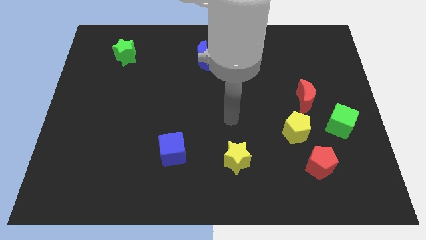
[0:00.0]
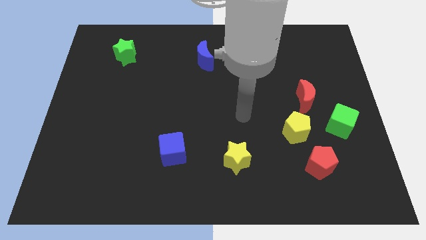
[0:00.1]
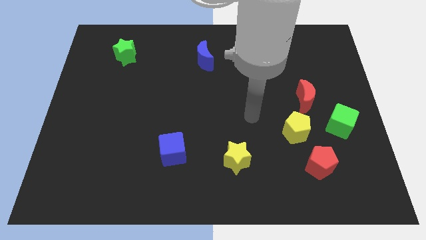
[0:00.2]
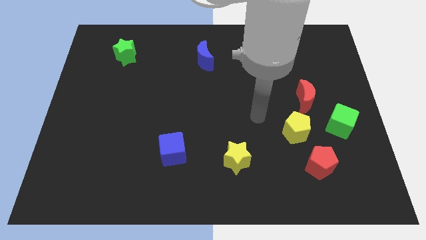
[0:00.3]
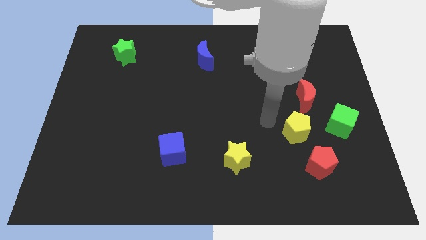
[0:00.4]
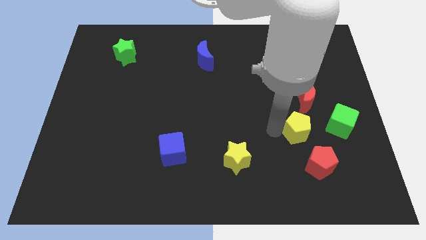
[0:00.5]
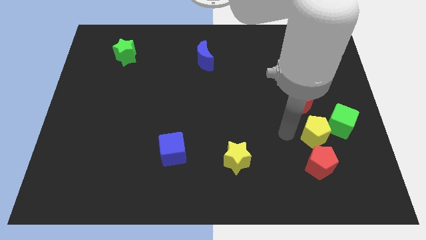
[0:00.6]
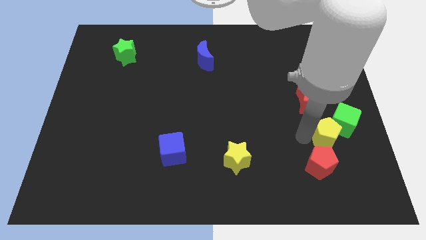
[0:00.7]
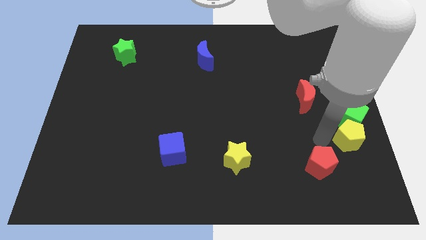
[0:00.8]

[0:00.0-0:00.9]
pull the red pentagon apart from the yellow pentagon

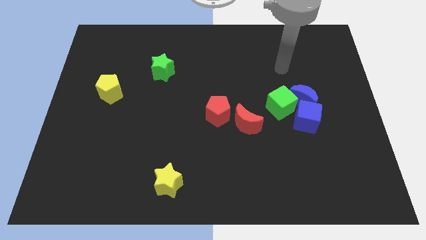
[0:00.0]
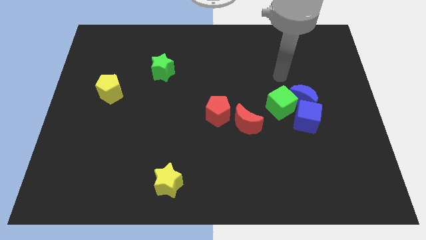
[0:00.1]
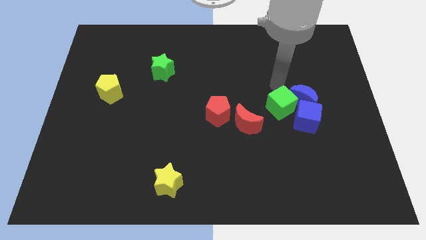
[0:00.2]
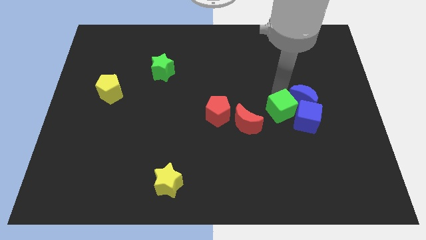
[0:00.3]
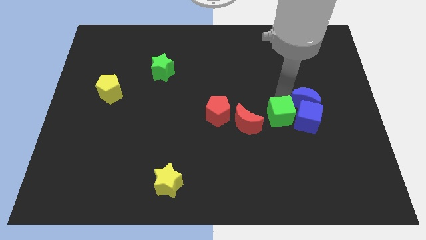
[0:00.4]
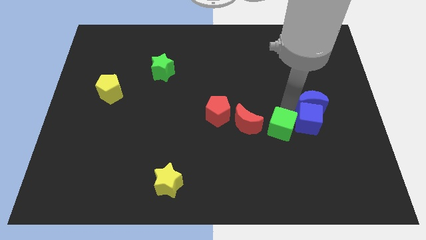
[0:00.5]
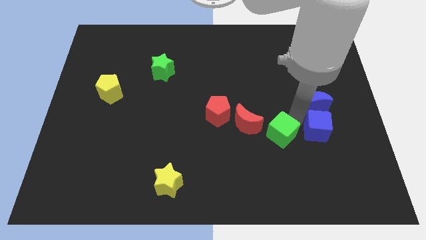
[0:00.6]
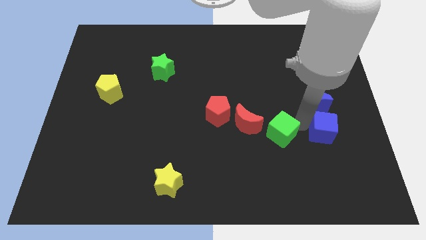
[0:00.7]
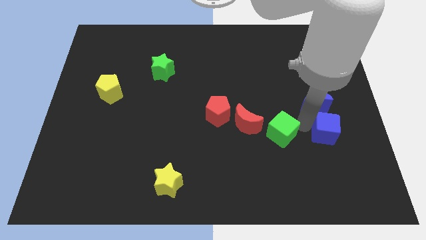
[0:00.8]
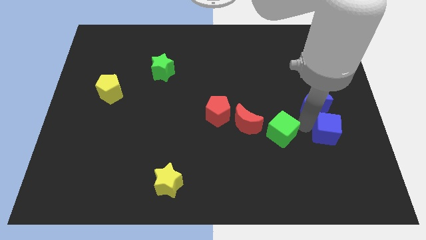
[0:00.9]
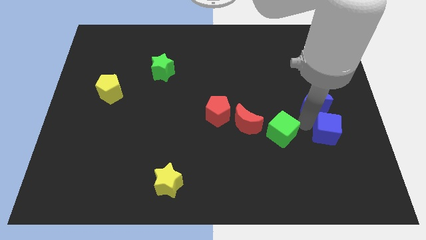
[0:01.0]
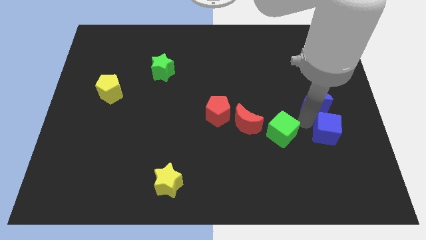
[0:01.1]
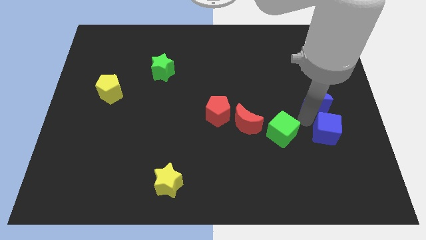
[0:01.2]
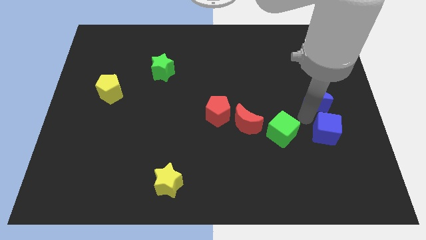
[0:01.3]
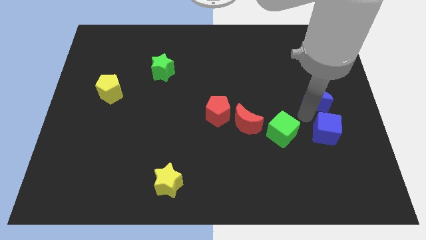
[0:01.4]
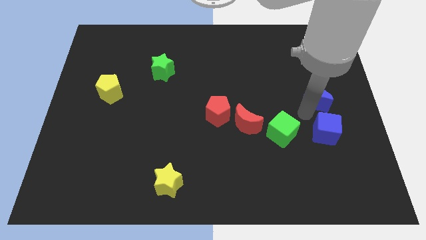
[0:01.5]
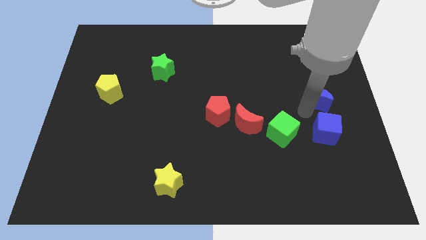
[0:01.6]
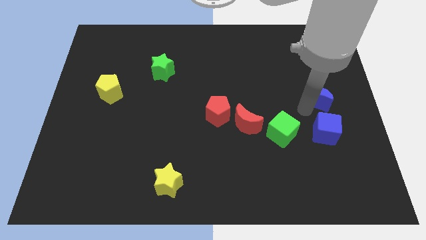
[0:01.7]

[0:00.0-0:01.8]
move the blue moon away from the blue cube and green cube

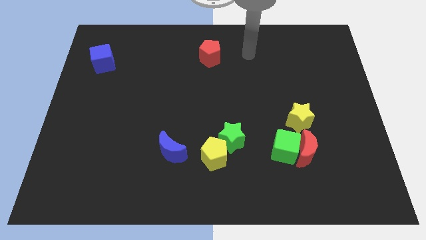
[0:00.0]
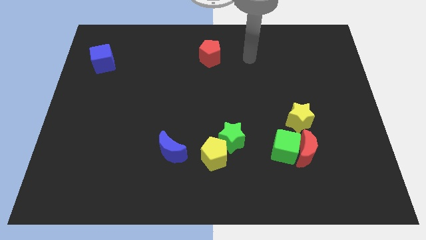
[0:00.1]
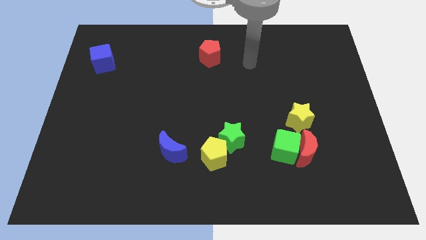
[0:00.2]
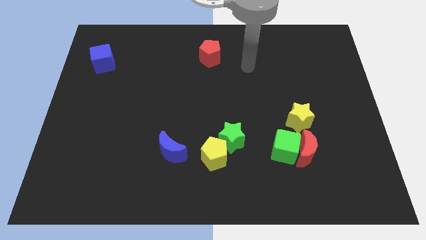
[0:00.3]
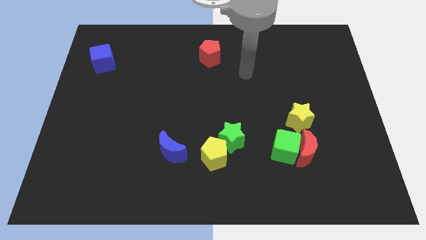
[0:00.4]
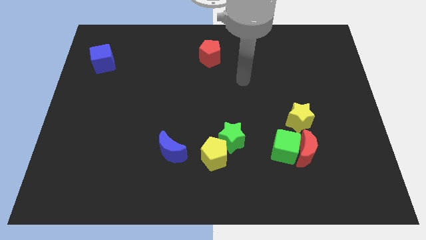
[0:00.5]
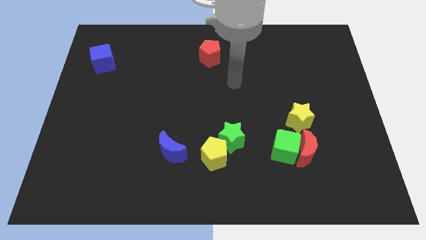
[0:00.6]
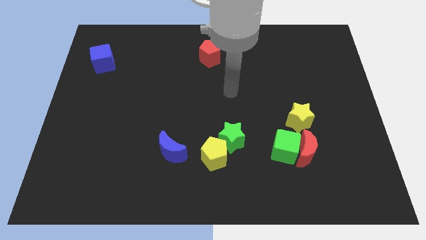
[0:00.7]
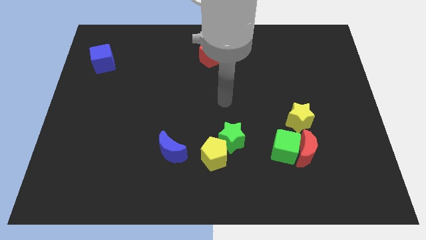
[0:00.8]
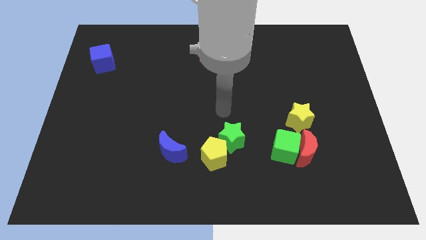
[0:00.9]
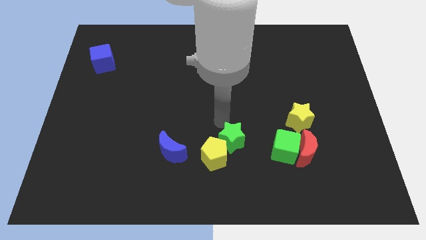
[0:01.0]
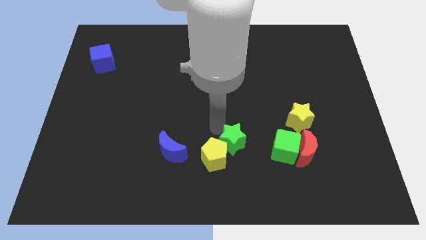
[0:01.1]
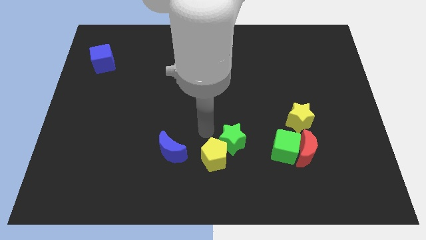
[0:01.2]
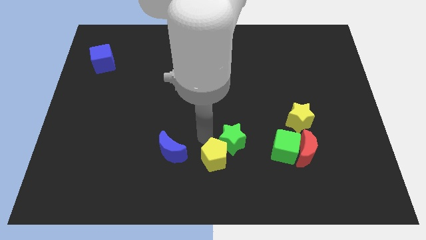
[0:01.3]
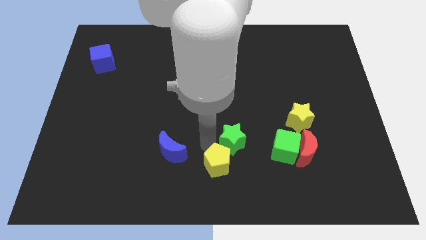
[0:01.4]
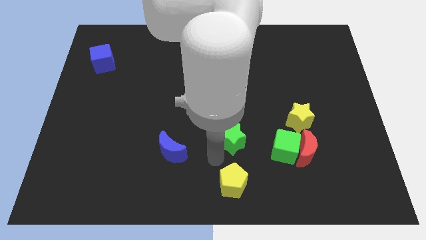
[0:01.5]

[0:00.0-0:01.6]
move the green star away from the yellow pentagon

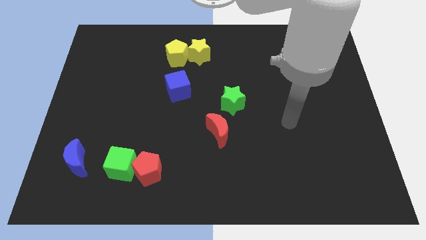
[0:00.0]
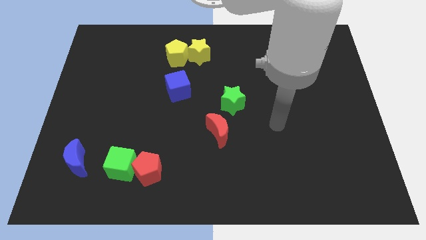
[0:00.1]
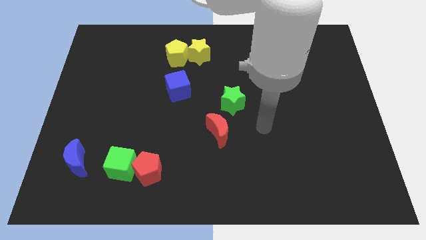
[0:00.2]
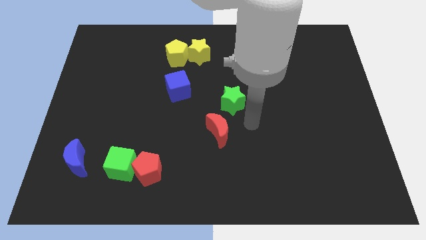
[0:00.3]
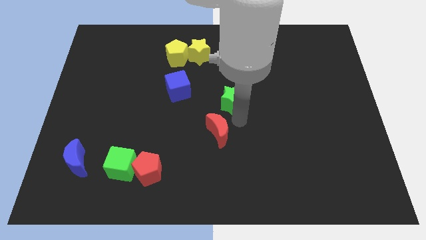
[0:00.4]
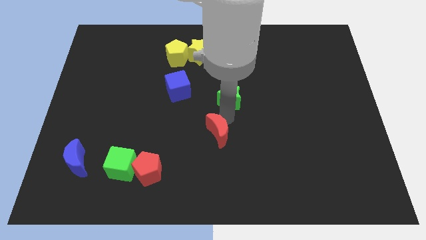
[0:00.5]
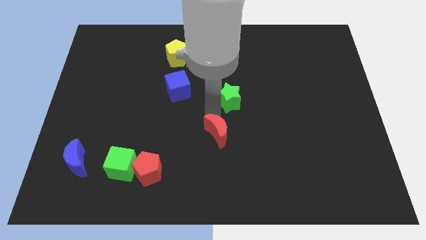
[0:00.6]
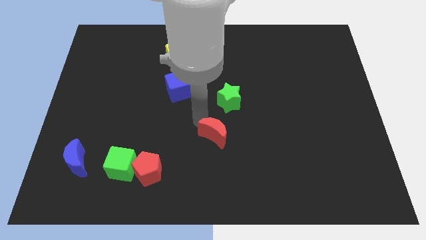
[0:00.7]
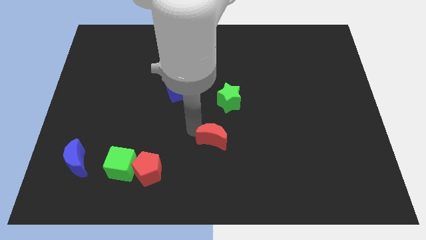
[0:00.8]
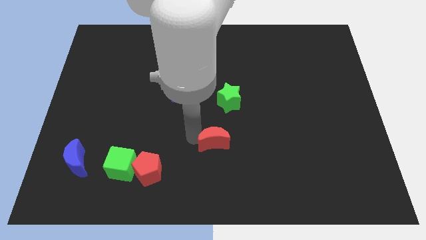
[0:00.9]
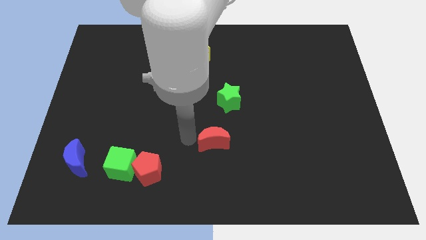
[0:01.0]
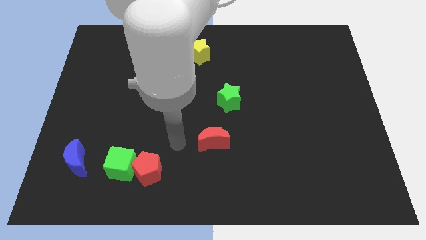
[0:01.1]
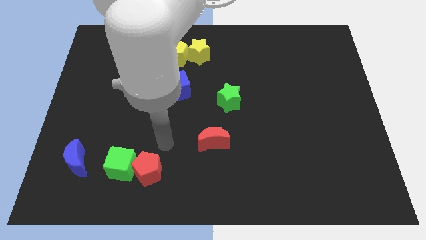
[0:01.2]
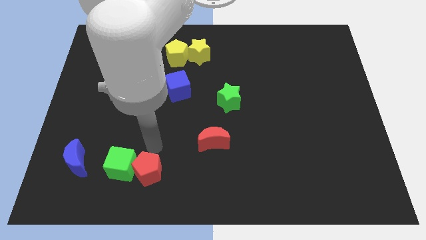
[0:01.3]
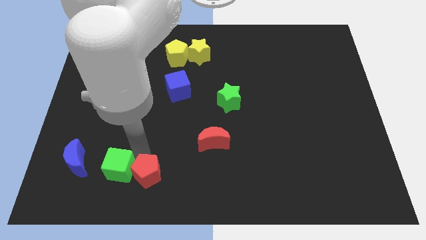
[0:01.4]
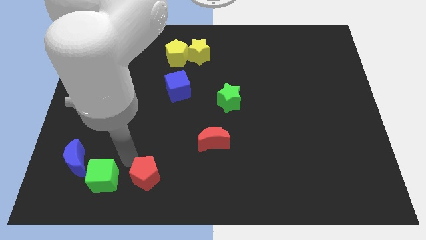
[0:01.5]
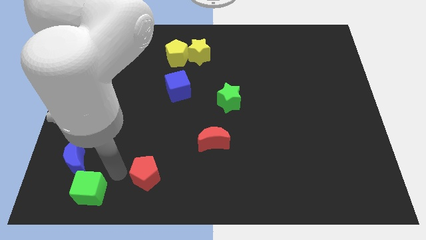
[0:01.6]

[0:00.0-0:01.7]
move the red pentagon away from the green cube

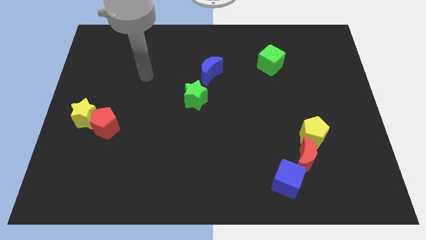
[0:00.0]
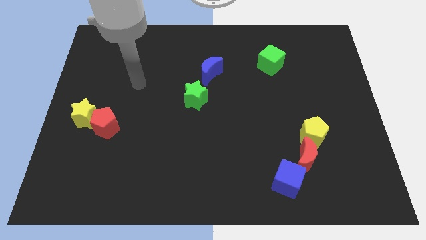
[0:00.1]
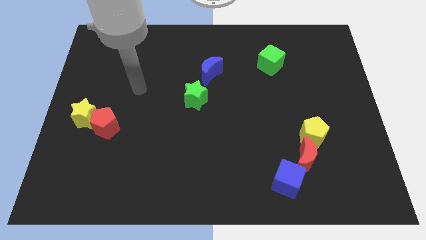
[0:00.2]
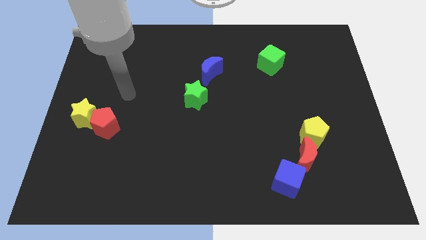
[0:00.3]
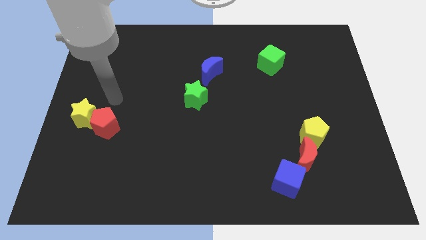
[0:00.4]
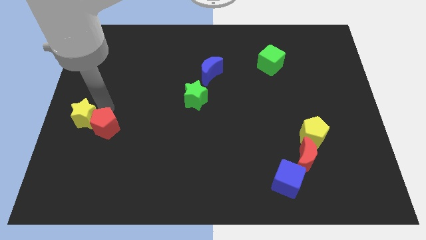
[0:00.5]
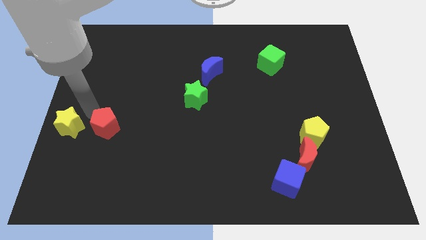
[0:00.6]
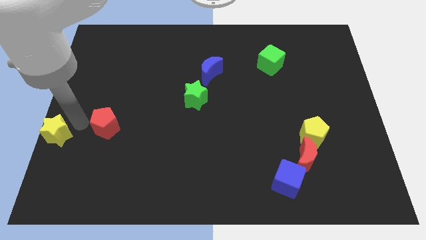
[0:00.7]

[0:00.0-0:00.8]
separate the red pentagon from the yellow star

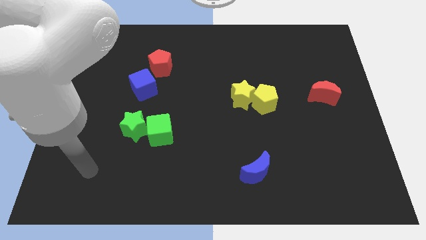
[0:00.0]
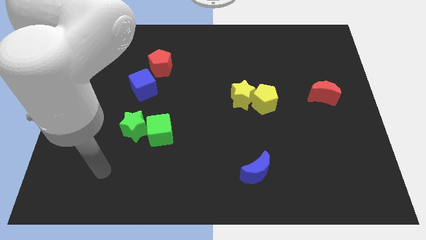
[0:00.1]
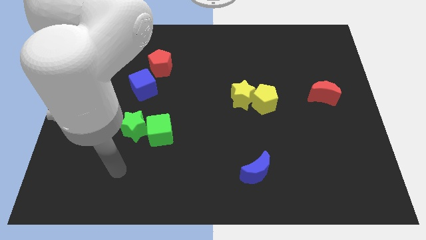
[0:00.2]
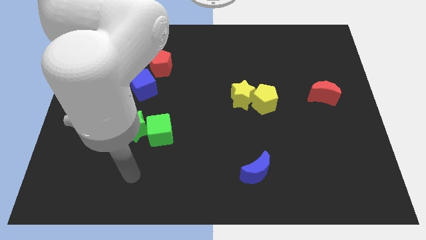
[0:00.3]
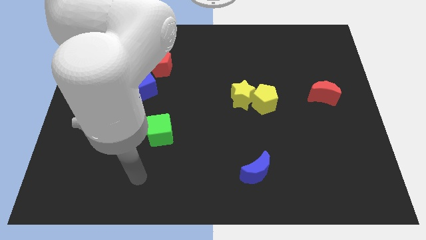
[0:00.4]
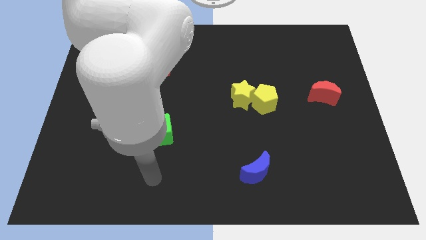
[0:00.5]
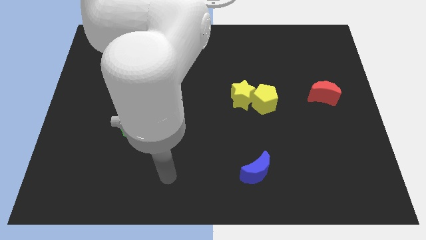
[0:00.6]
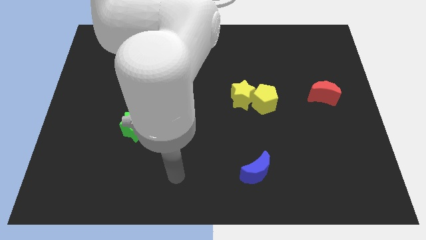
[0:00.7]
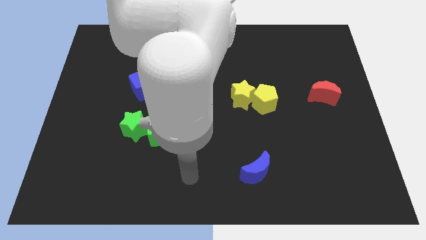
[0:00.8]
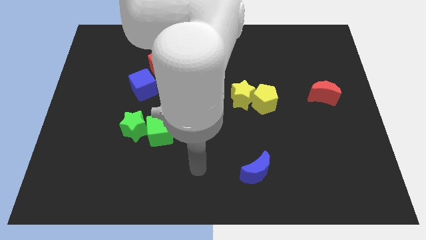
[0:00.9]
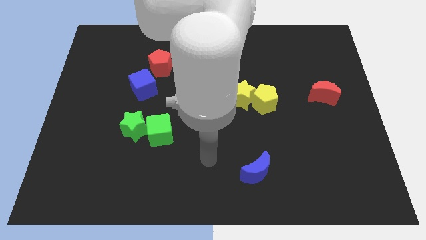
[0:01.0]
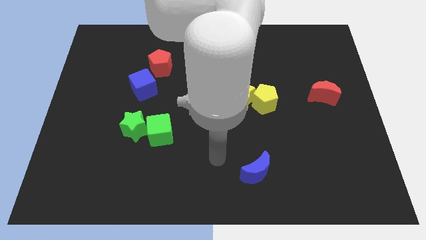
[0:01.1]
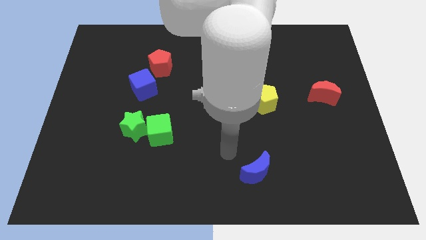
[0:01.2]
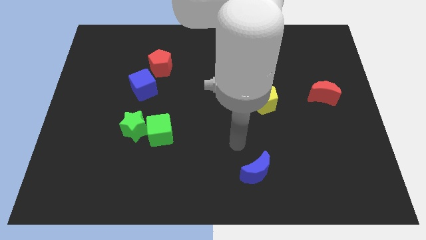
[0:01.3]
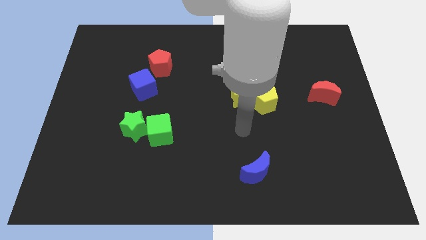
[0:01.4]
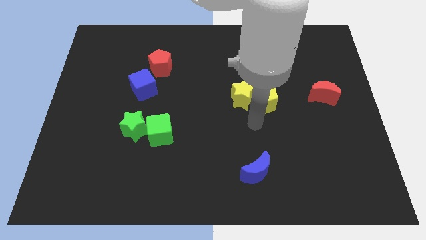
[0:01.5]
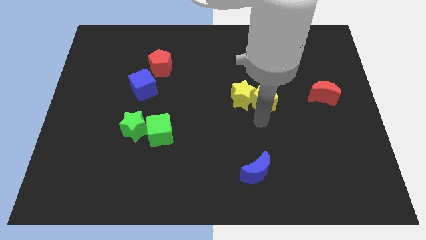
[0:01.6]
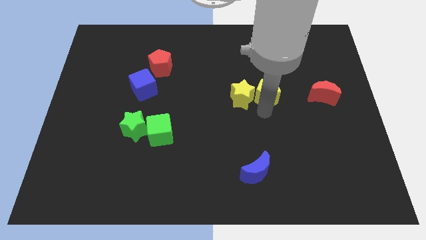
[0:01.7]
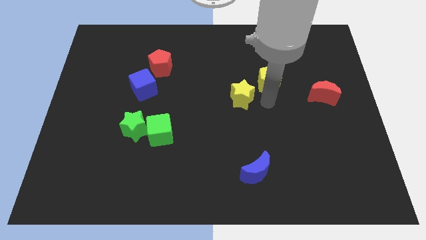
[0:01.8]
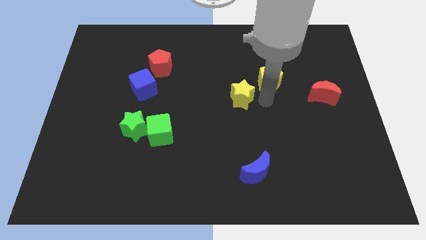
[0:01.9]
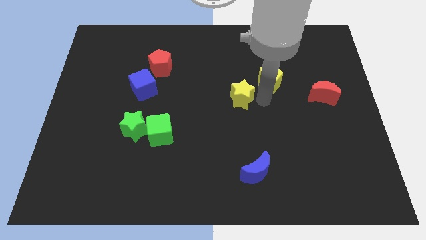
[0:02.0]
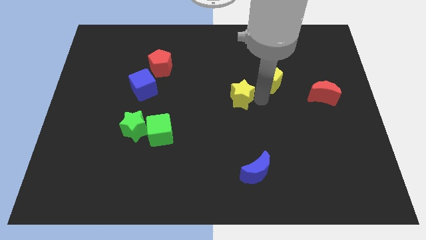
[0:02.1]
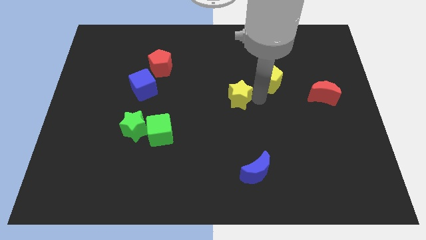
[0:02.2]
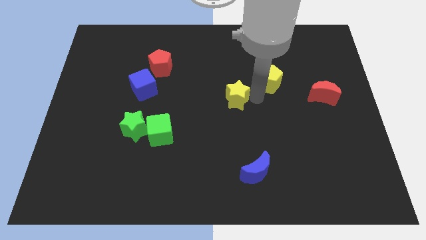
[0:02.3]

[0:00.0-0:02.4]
separate the yellow star from the yellow pentagon

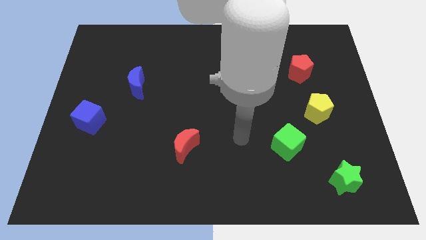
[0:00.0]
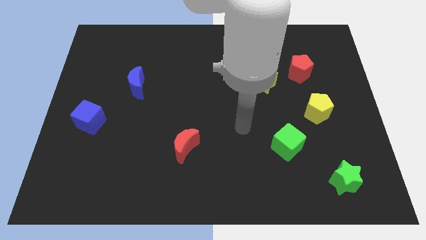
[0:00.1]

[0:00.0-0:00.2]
move the red pentagon away from the yellow star
